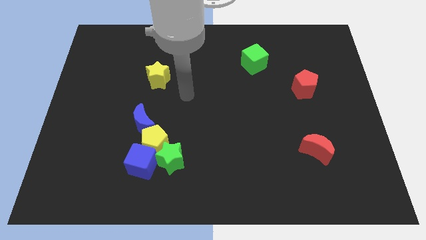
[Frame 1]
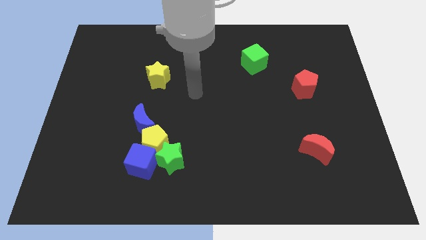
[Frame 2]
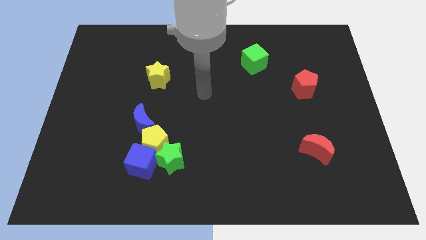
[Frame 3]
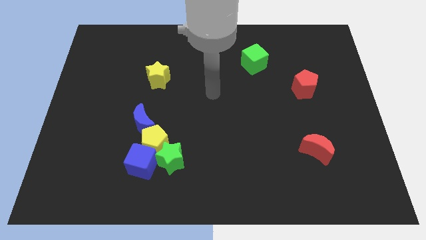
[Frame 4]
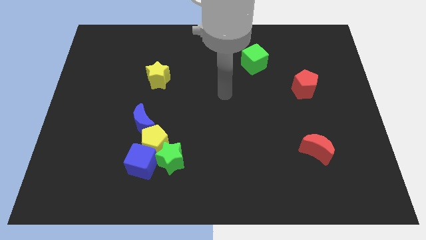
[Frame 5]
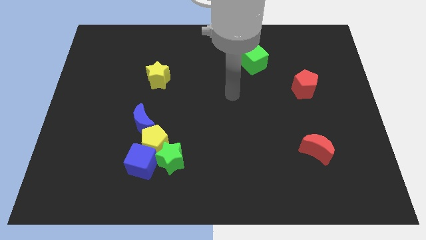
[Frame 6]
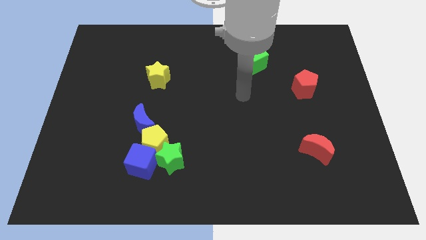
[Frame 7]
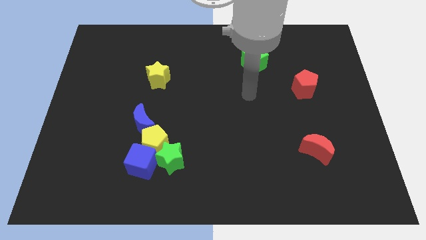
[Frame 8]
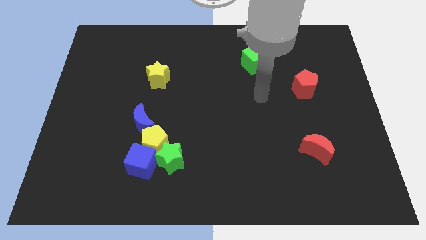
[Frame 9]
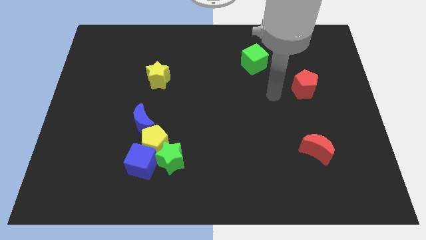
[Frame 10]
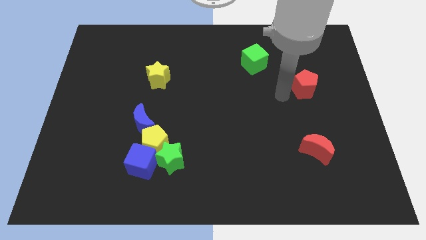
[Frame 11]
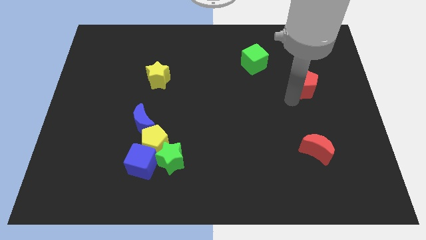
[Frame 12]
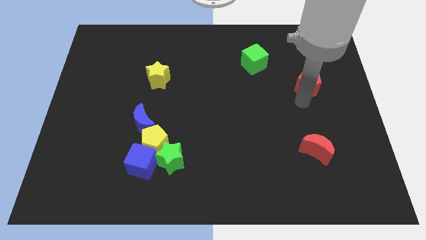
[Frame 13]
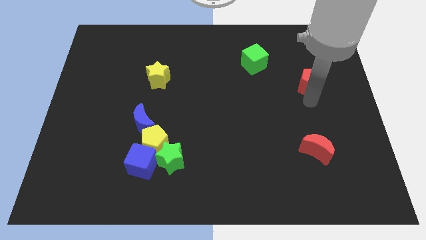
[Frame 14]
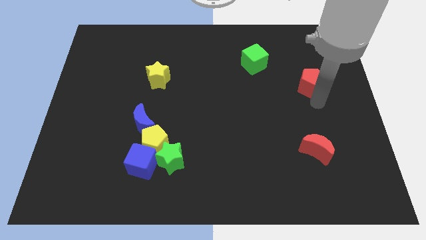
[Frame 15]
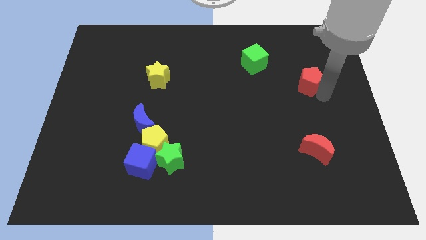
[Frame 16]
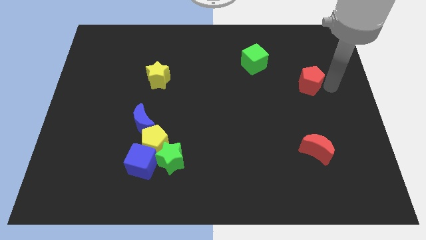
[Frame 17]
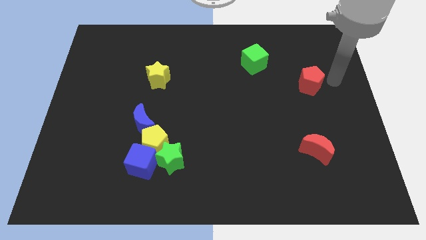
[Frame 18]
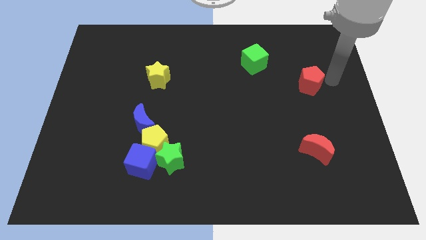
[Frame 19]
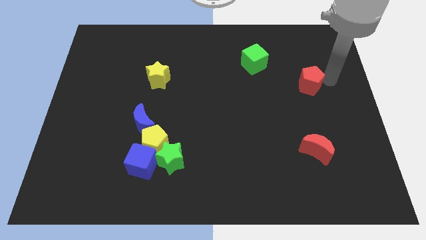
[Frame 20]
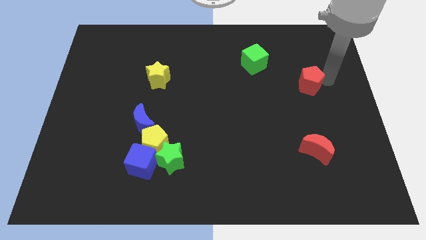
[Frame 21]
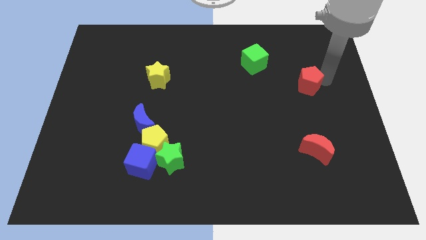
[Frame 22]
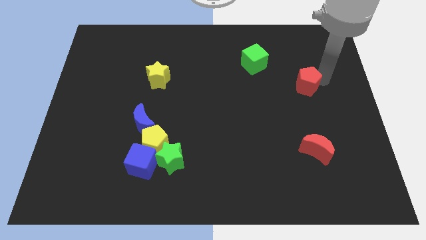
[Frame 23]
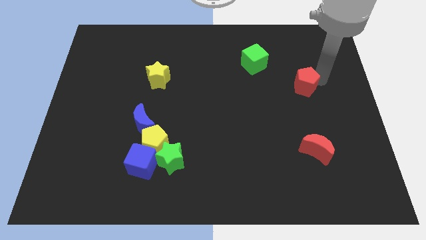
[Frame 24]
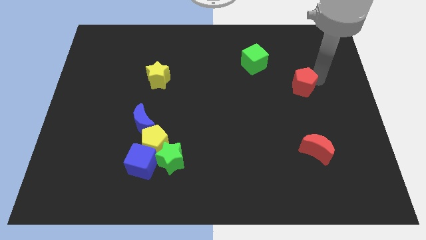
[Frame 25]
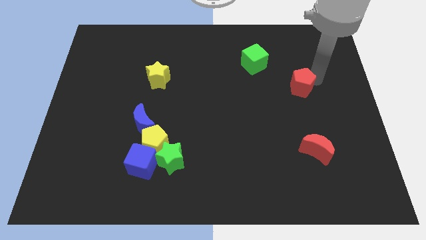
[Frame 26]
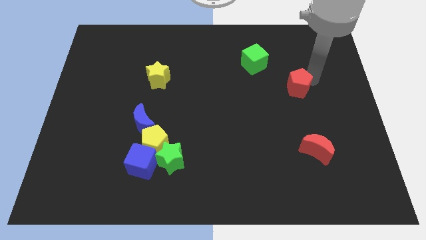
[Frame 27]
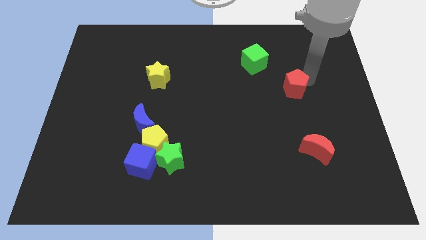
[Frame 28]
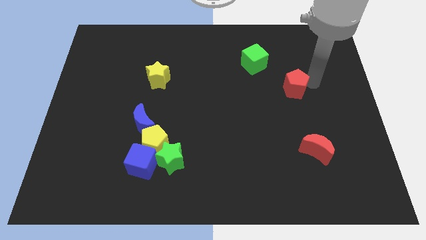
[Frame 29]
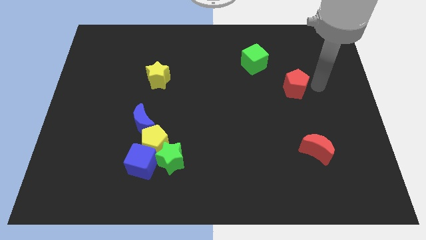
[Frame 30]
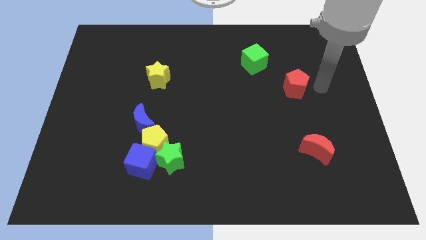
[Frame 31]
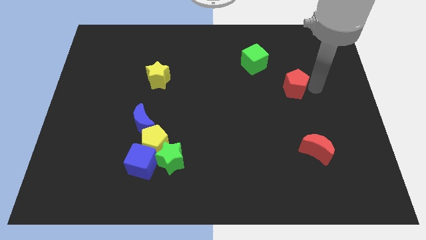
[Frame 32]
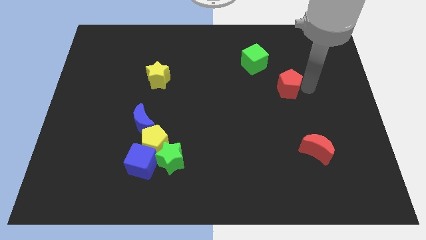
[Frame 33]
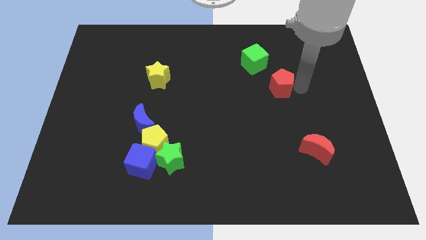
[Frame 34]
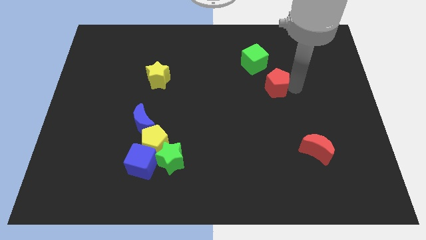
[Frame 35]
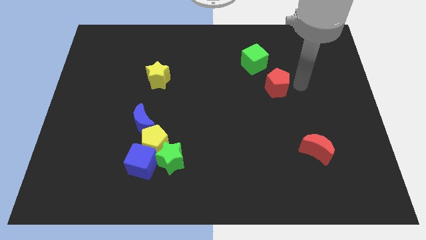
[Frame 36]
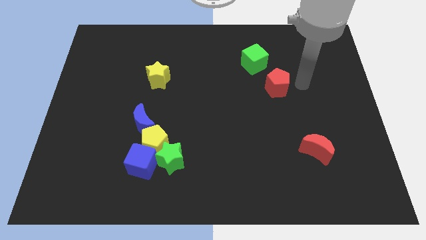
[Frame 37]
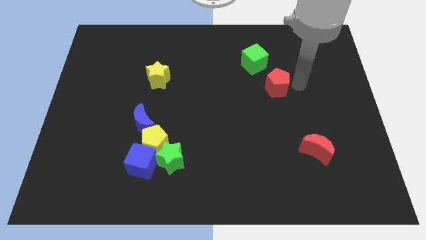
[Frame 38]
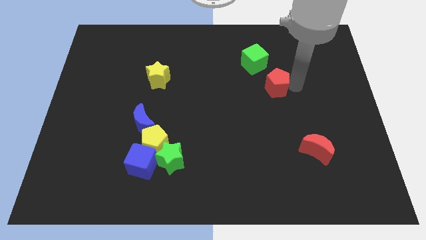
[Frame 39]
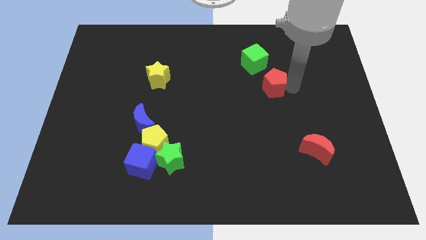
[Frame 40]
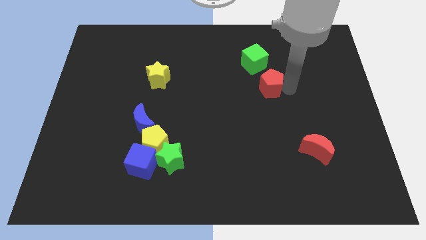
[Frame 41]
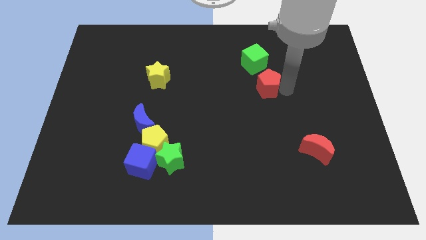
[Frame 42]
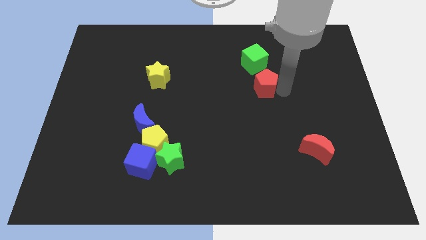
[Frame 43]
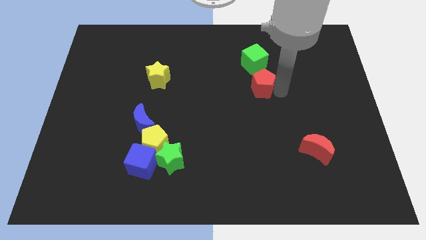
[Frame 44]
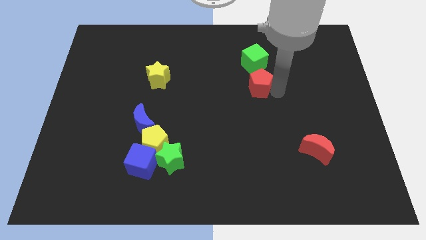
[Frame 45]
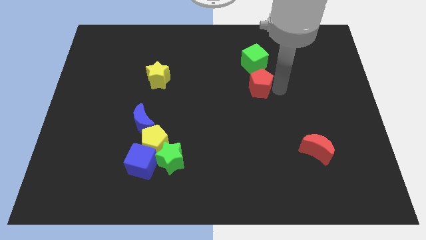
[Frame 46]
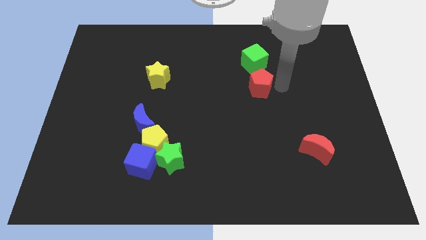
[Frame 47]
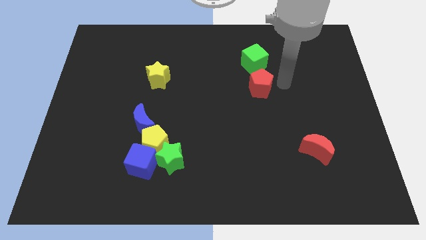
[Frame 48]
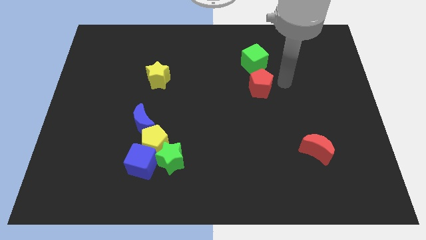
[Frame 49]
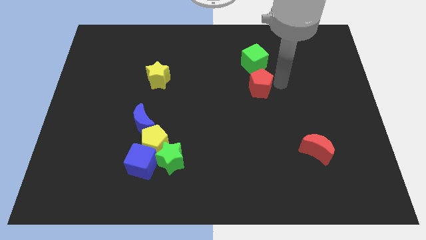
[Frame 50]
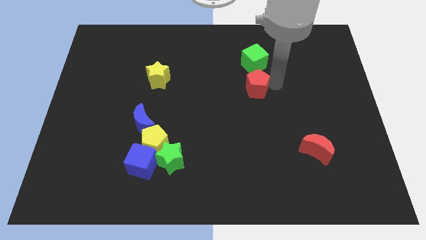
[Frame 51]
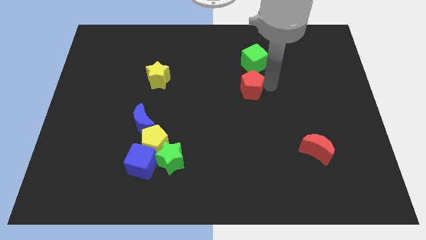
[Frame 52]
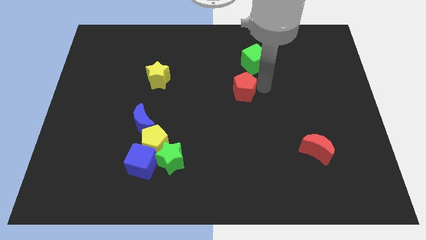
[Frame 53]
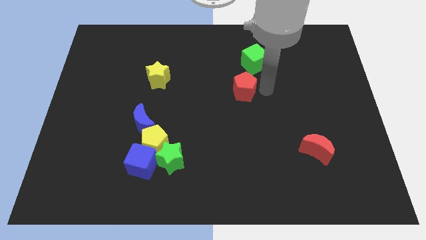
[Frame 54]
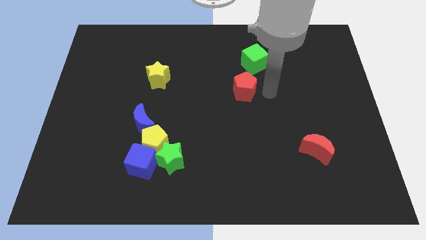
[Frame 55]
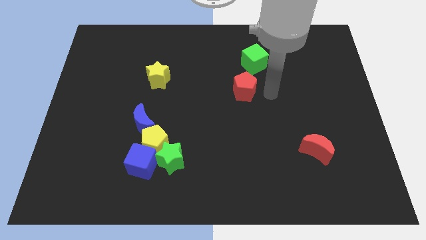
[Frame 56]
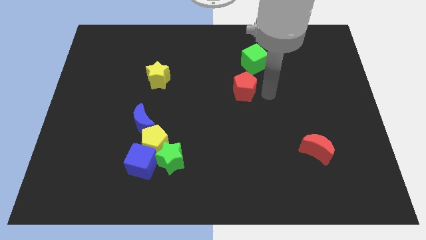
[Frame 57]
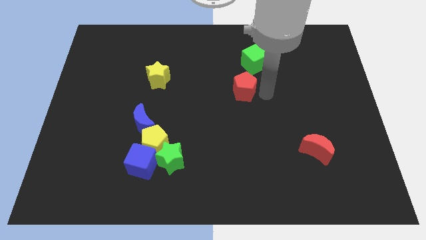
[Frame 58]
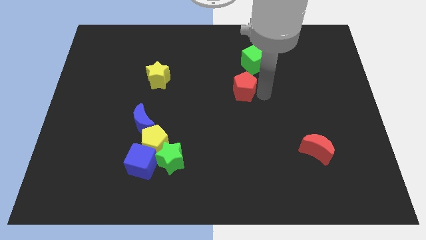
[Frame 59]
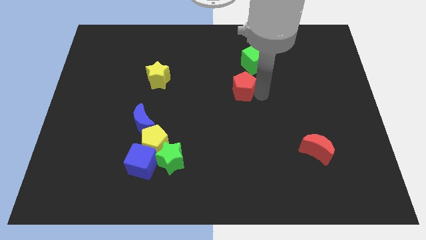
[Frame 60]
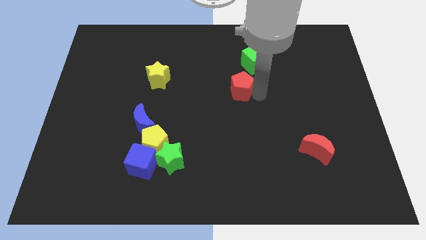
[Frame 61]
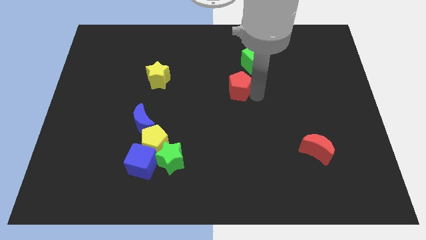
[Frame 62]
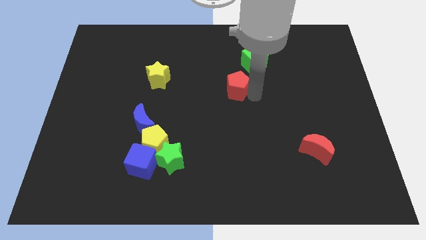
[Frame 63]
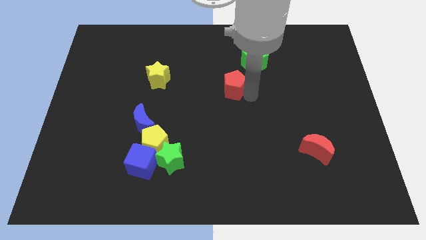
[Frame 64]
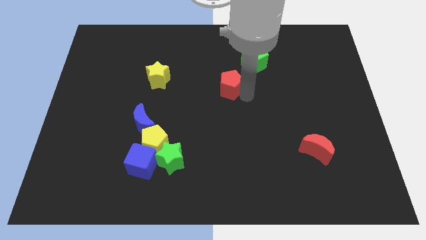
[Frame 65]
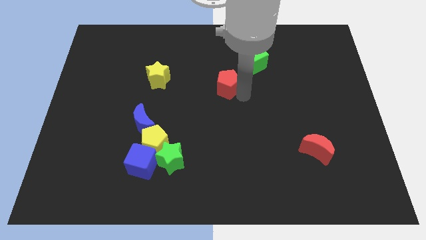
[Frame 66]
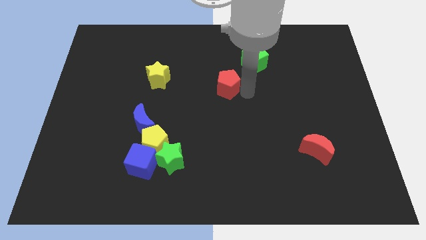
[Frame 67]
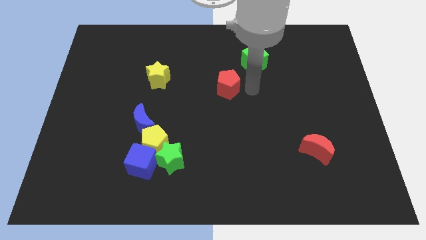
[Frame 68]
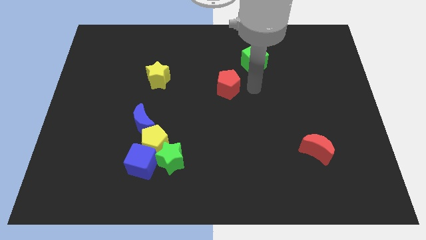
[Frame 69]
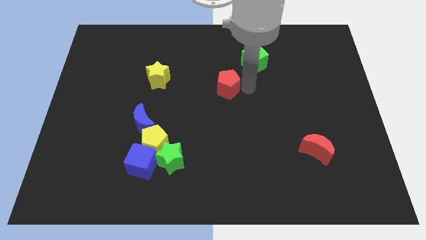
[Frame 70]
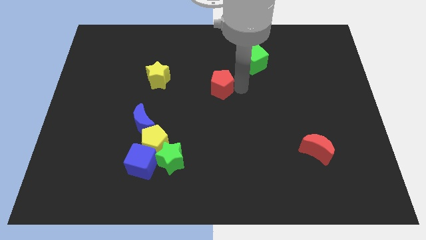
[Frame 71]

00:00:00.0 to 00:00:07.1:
push the red pentagon left

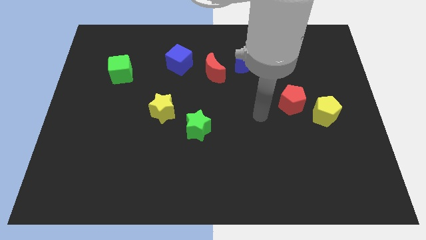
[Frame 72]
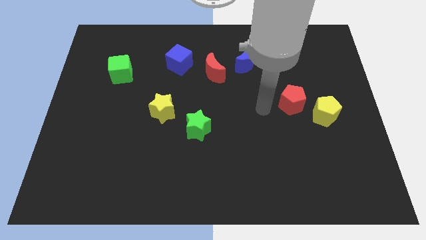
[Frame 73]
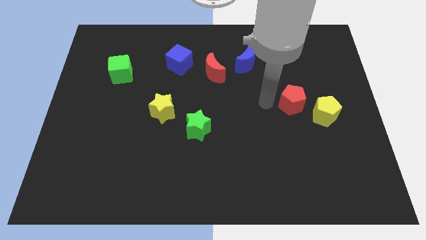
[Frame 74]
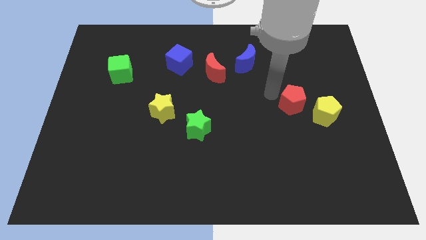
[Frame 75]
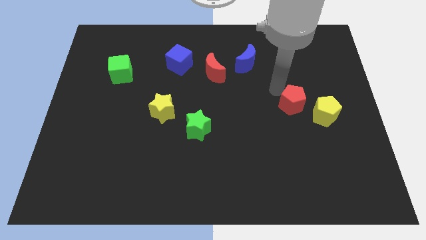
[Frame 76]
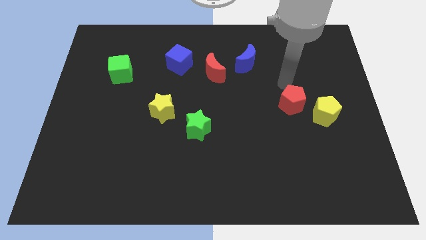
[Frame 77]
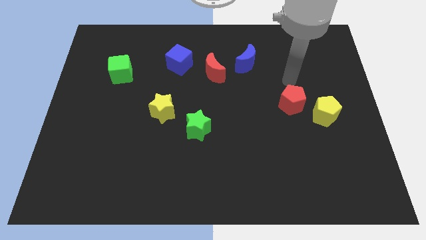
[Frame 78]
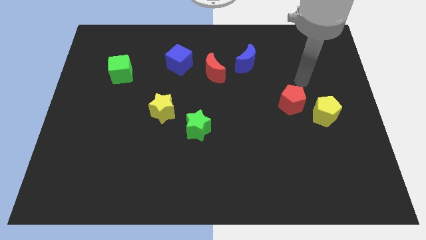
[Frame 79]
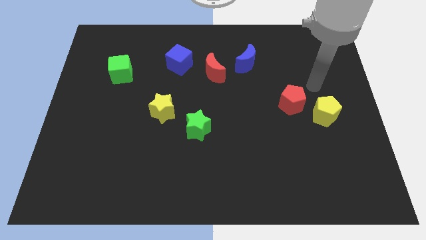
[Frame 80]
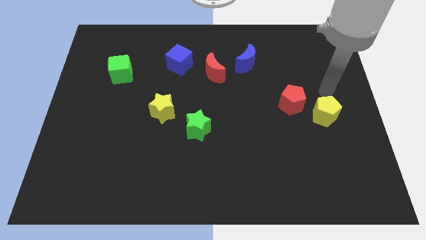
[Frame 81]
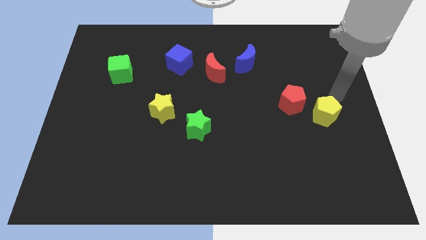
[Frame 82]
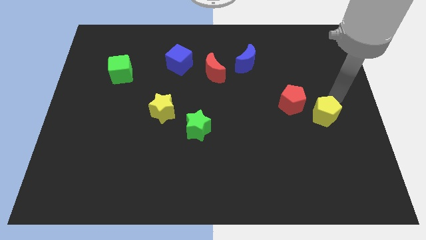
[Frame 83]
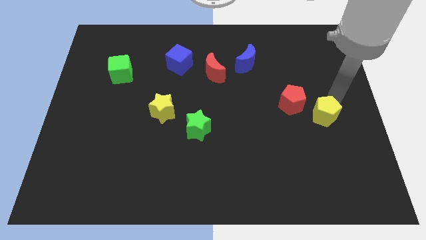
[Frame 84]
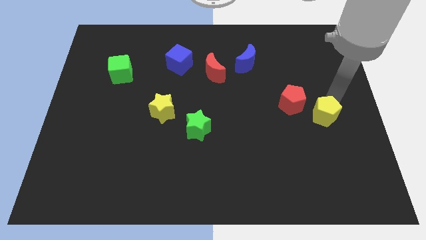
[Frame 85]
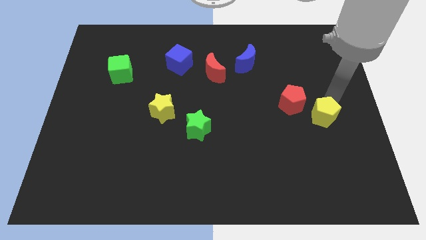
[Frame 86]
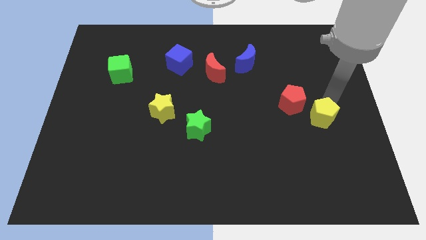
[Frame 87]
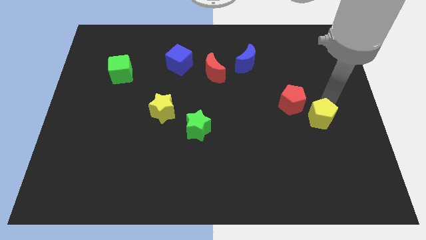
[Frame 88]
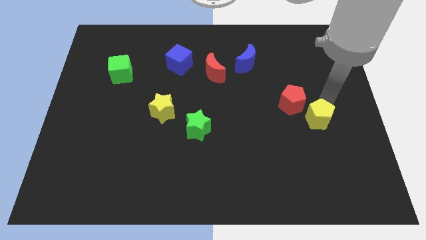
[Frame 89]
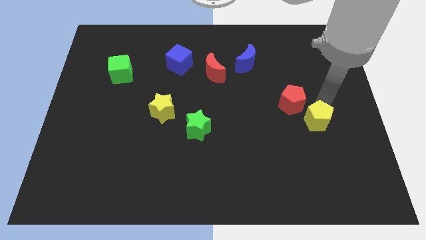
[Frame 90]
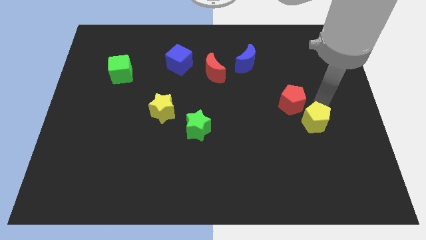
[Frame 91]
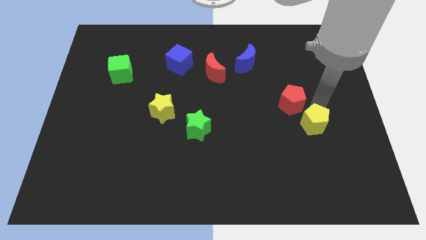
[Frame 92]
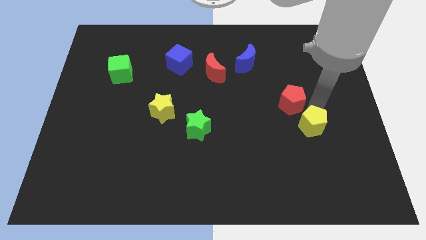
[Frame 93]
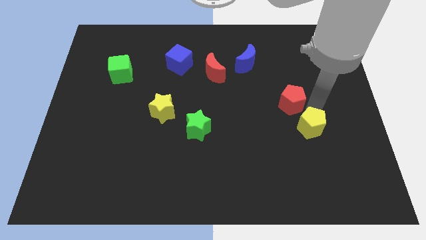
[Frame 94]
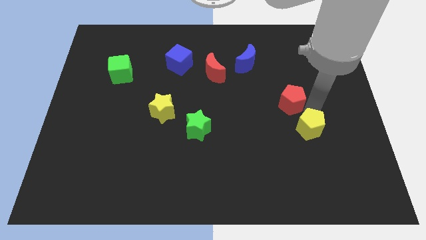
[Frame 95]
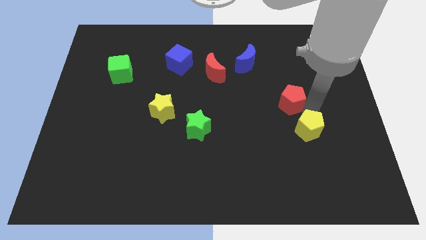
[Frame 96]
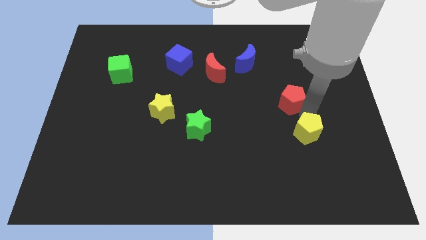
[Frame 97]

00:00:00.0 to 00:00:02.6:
move the yellow pentagon a bit diagonally downwards and to the left
